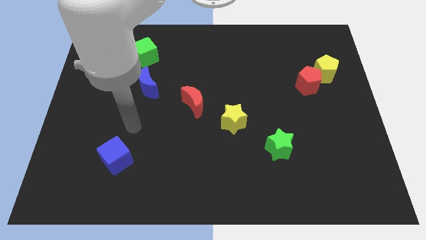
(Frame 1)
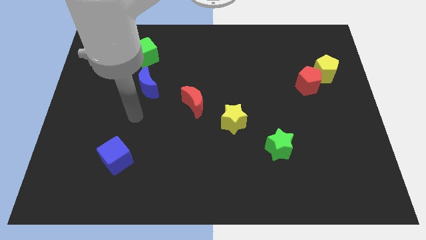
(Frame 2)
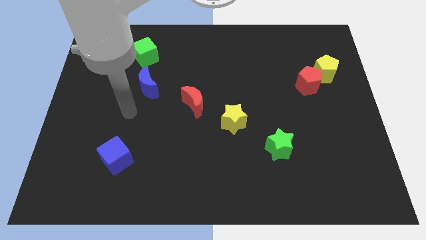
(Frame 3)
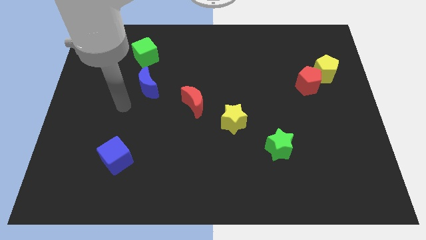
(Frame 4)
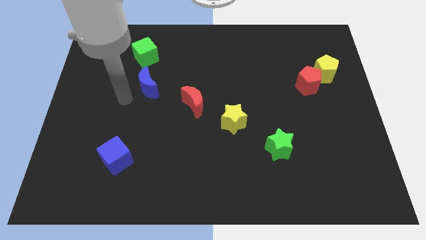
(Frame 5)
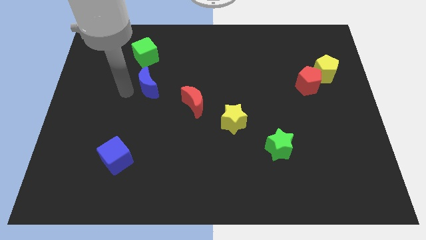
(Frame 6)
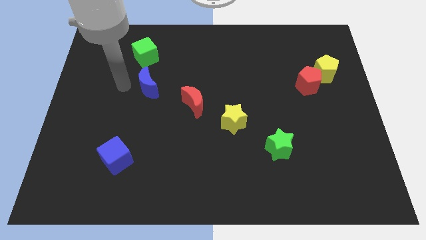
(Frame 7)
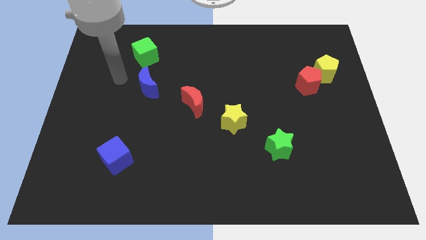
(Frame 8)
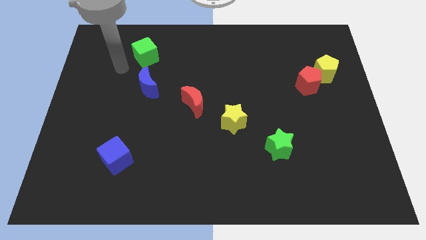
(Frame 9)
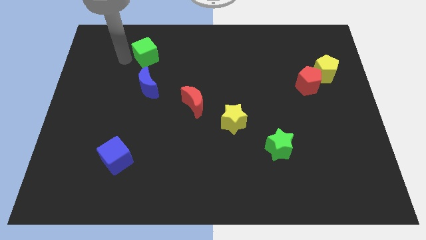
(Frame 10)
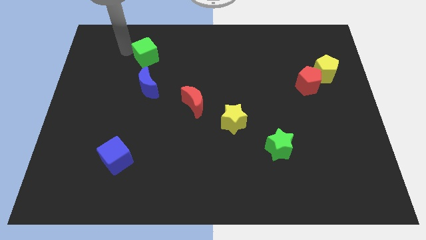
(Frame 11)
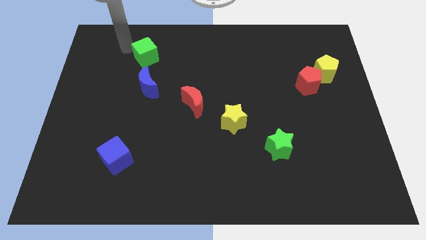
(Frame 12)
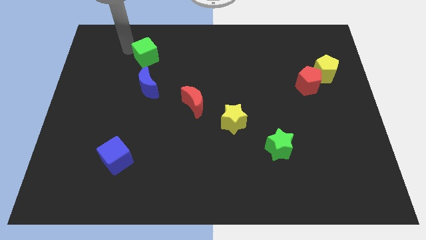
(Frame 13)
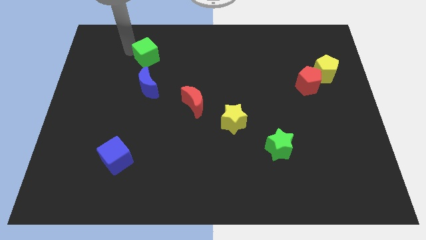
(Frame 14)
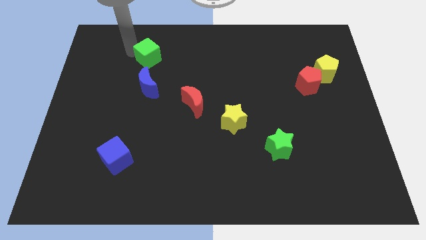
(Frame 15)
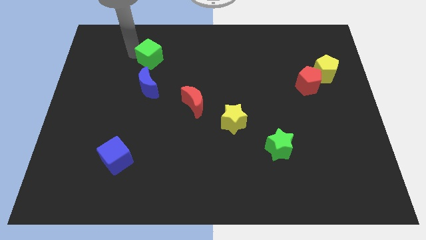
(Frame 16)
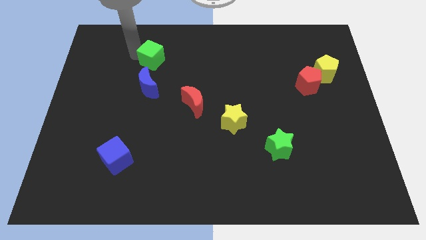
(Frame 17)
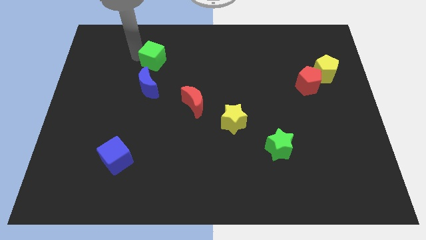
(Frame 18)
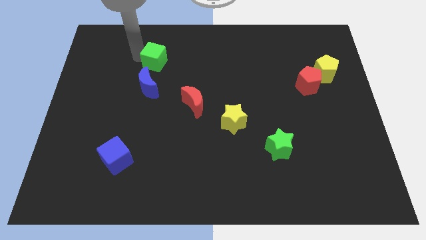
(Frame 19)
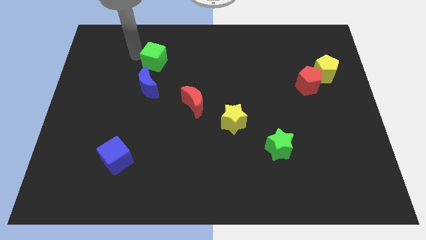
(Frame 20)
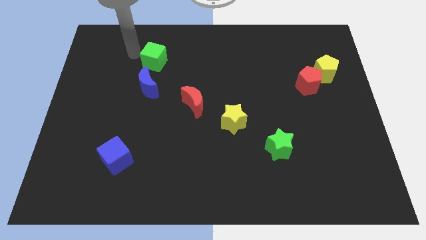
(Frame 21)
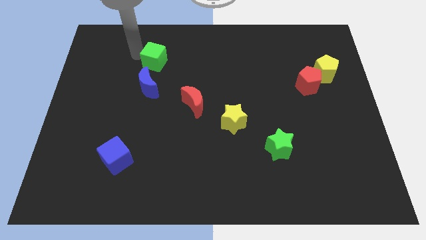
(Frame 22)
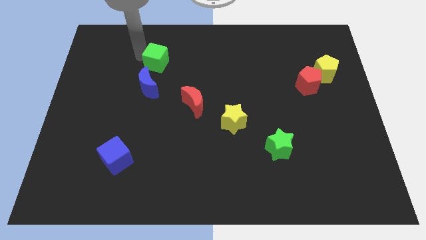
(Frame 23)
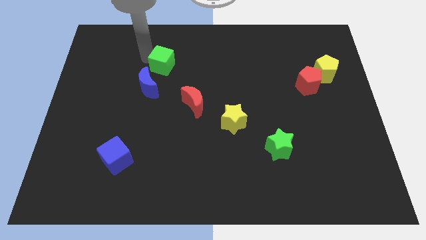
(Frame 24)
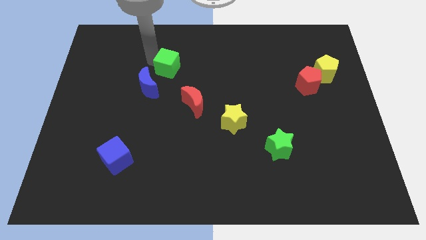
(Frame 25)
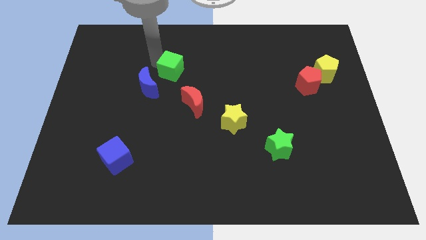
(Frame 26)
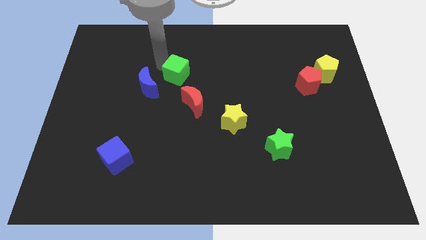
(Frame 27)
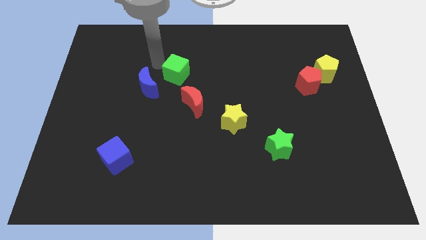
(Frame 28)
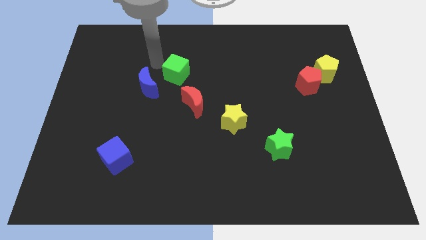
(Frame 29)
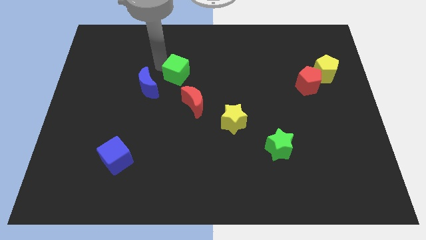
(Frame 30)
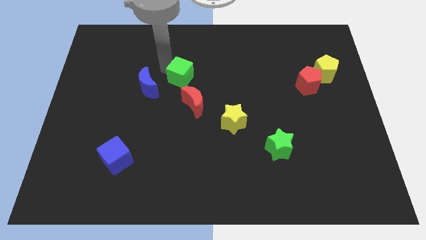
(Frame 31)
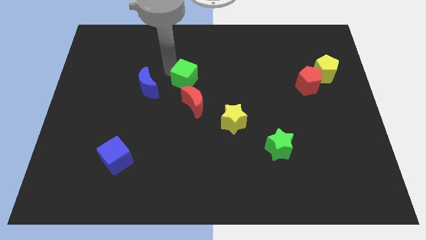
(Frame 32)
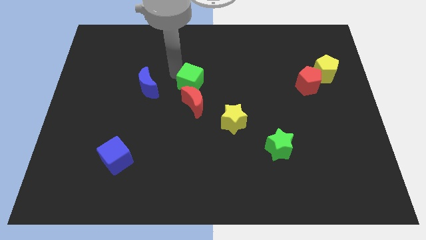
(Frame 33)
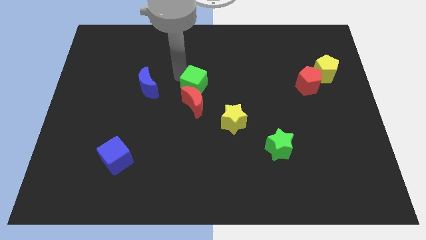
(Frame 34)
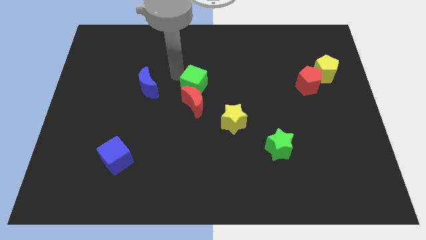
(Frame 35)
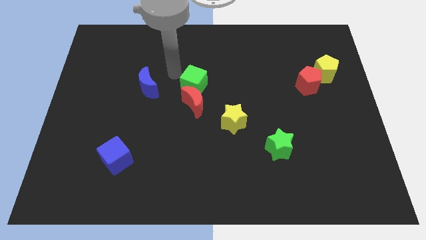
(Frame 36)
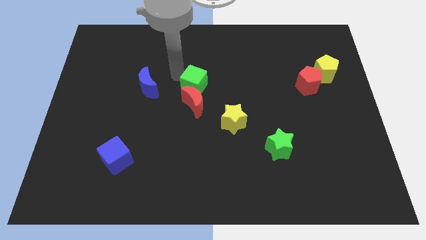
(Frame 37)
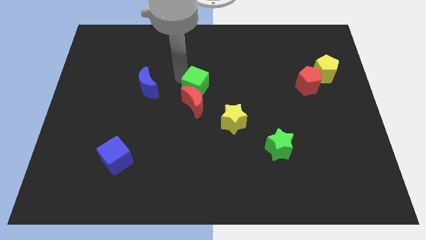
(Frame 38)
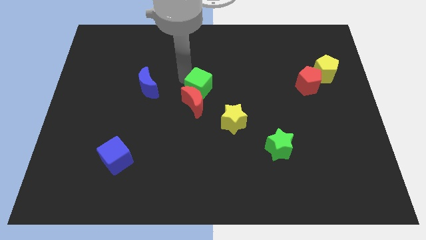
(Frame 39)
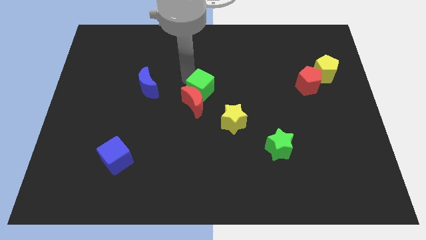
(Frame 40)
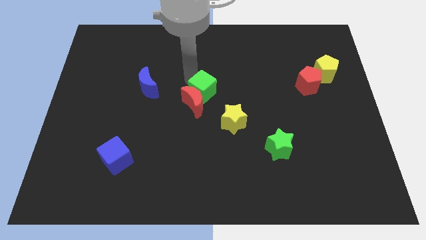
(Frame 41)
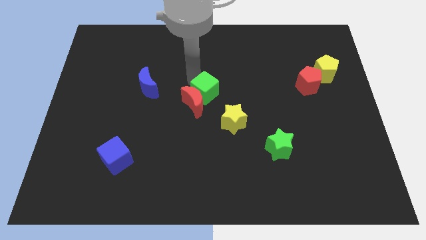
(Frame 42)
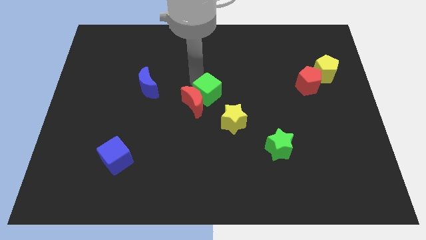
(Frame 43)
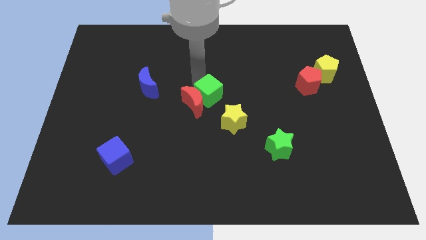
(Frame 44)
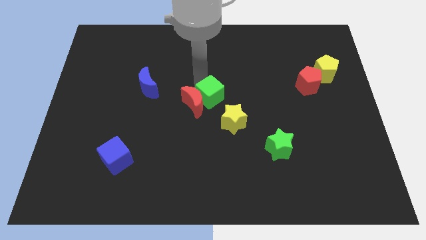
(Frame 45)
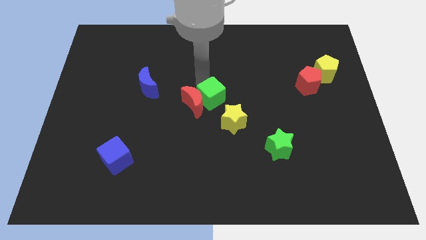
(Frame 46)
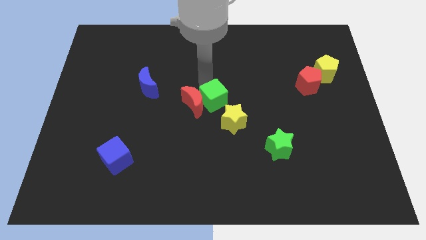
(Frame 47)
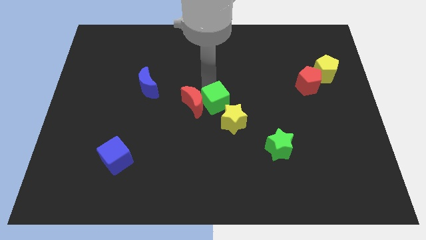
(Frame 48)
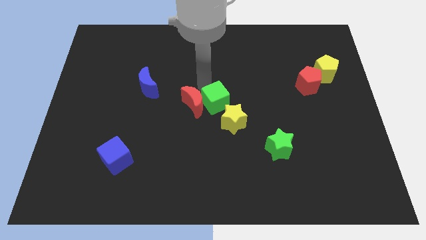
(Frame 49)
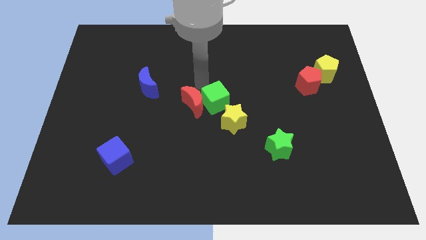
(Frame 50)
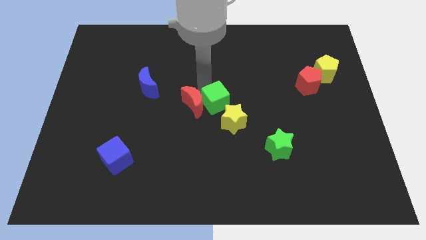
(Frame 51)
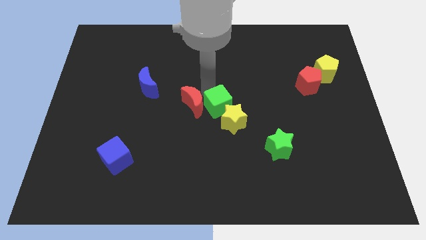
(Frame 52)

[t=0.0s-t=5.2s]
slide the green cube towards the yellow star

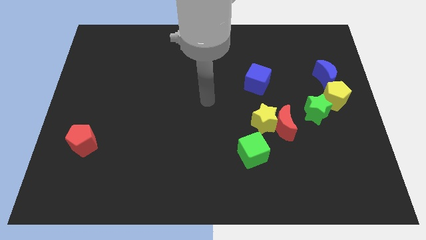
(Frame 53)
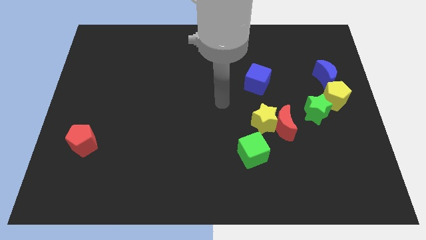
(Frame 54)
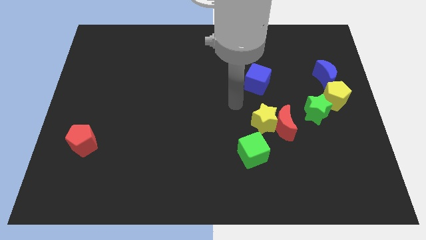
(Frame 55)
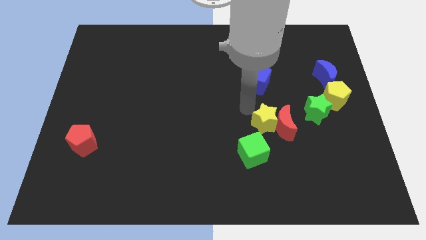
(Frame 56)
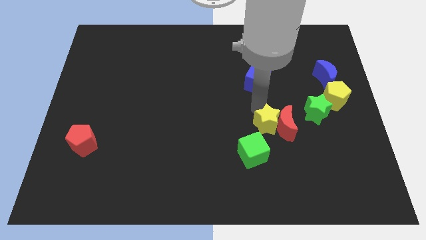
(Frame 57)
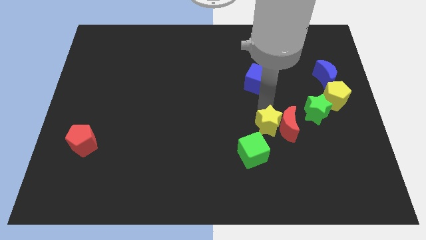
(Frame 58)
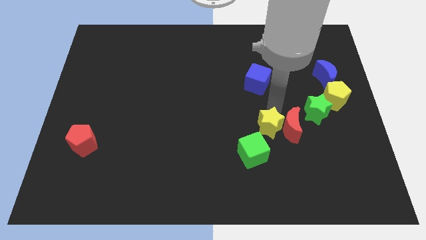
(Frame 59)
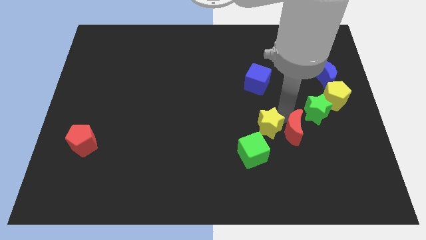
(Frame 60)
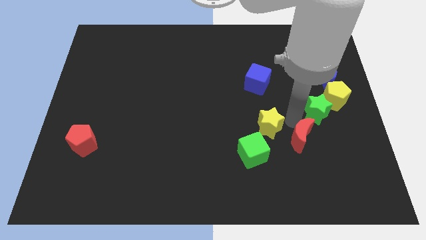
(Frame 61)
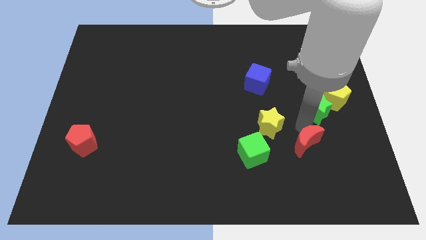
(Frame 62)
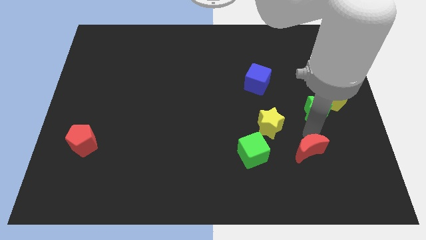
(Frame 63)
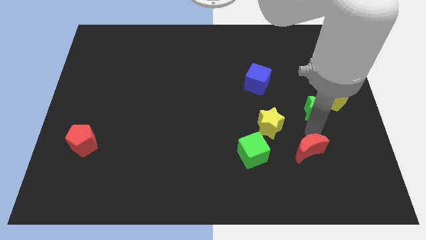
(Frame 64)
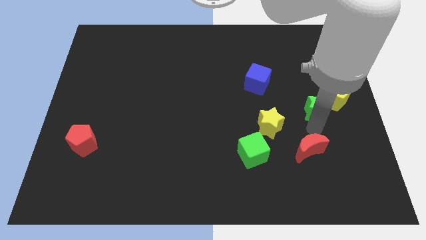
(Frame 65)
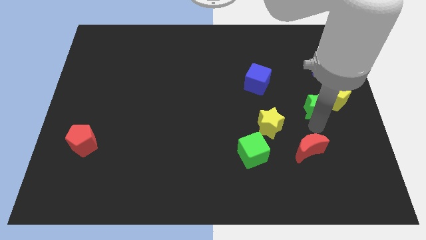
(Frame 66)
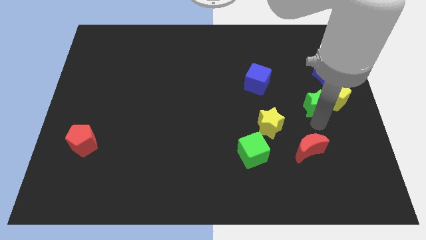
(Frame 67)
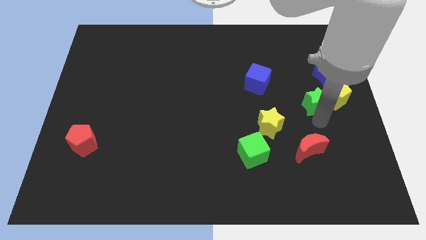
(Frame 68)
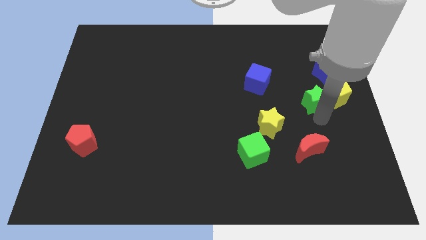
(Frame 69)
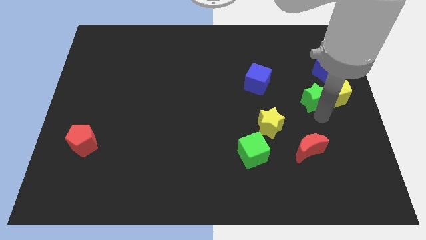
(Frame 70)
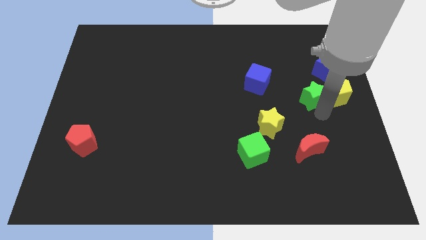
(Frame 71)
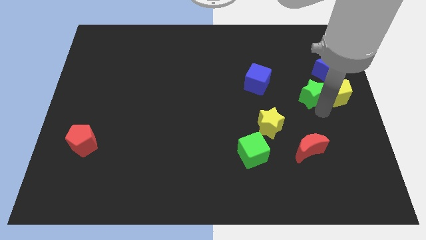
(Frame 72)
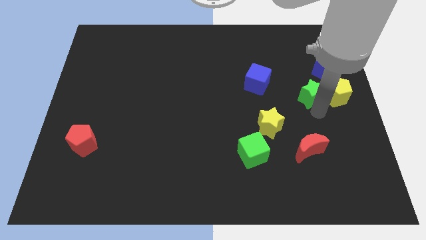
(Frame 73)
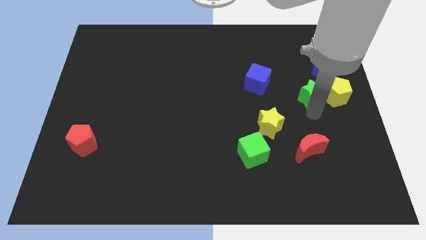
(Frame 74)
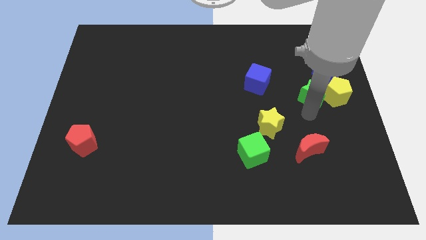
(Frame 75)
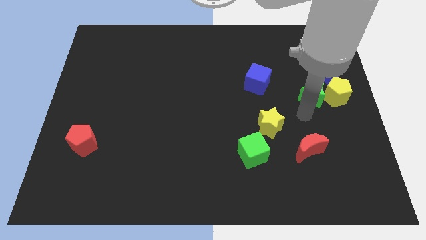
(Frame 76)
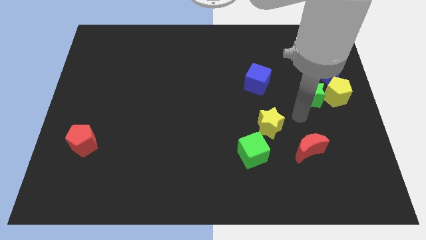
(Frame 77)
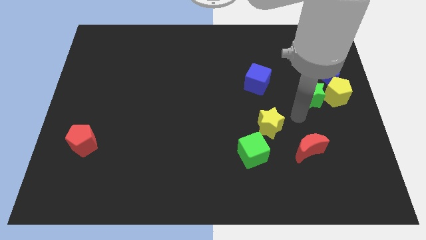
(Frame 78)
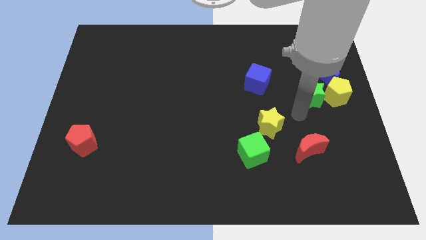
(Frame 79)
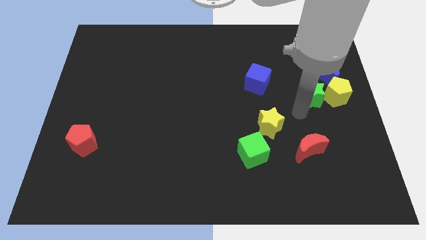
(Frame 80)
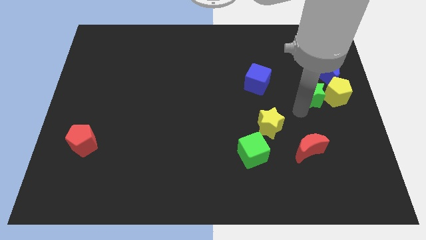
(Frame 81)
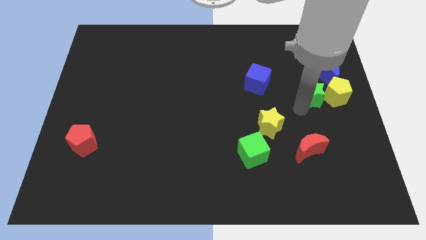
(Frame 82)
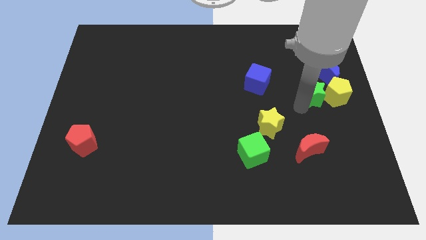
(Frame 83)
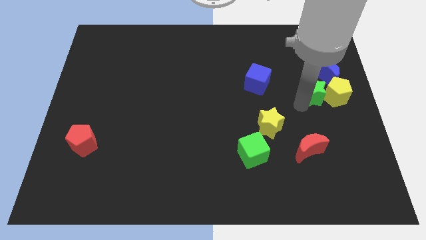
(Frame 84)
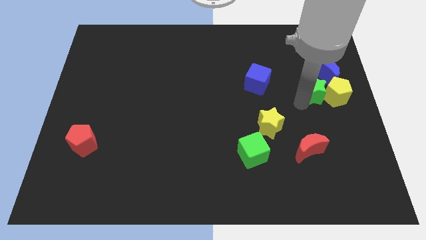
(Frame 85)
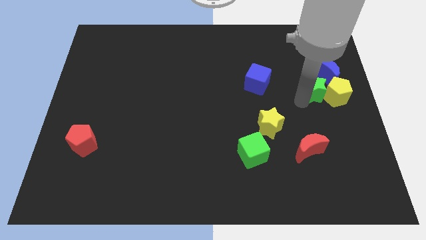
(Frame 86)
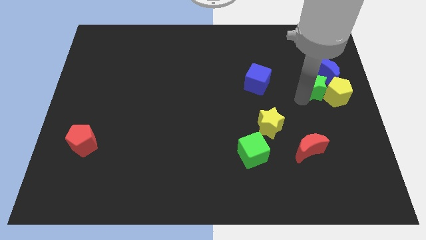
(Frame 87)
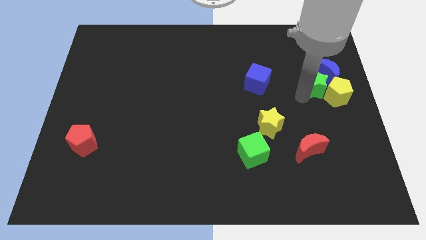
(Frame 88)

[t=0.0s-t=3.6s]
push the green star towards the blue moon
